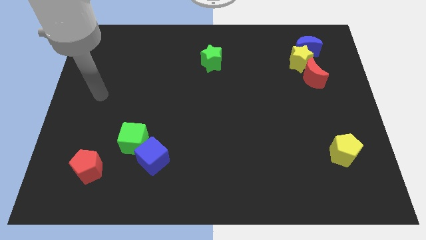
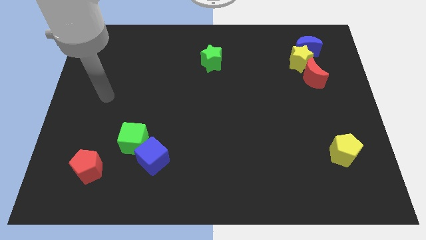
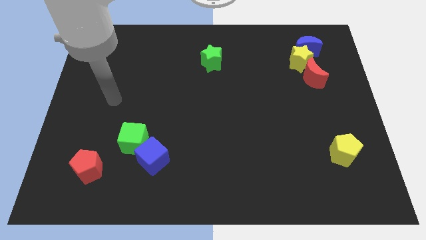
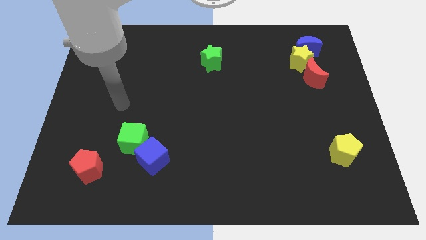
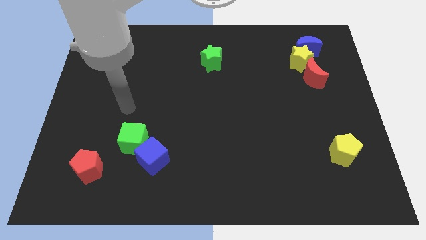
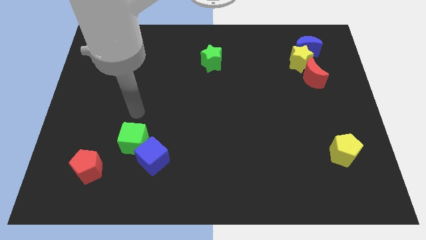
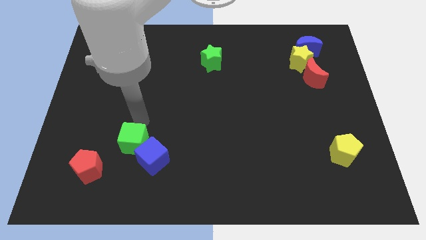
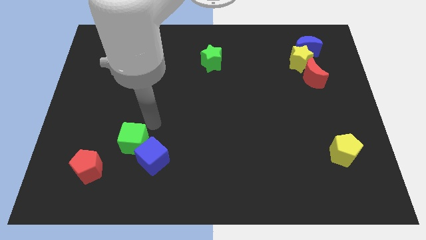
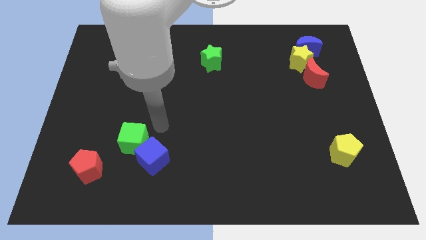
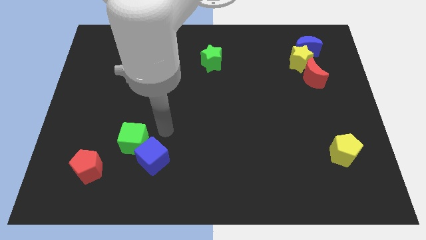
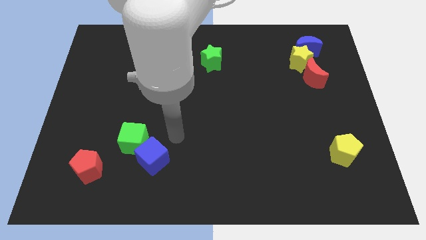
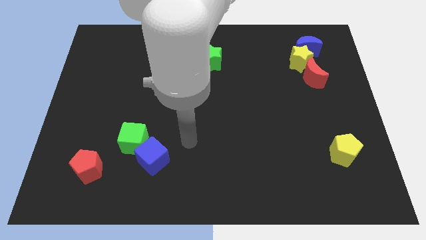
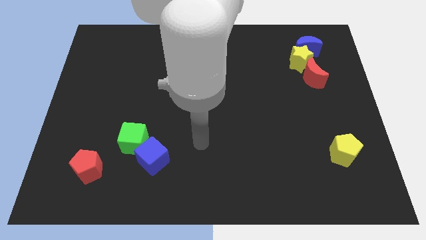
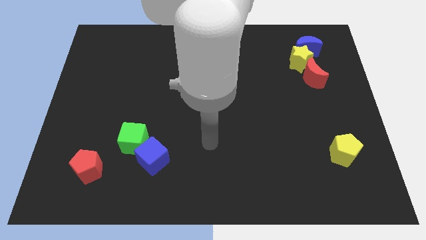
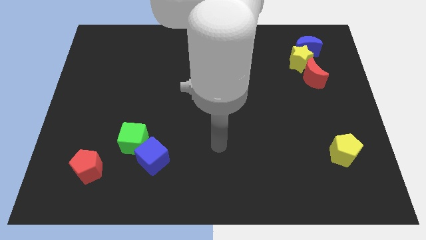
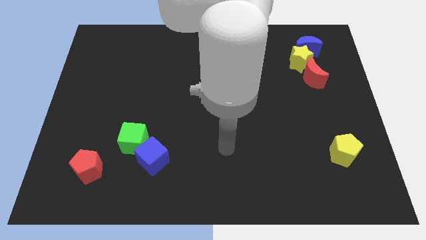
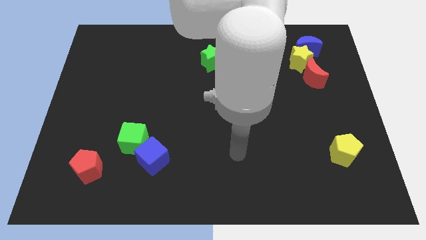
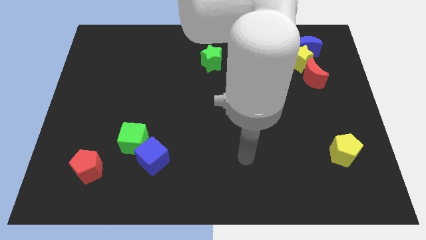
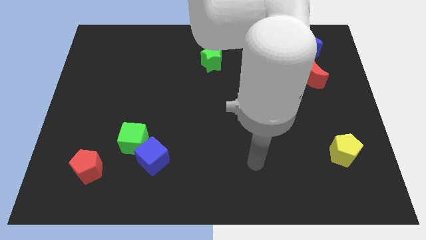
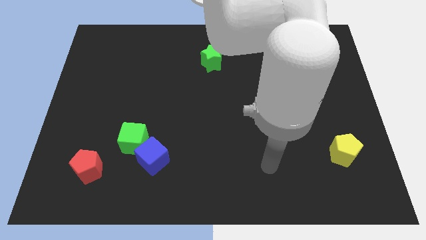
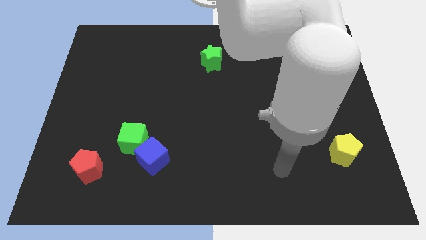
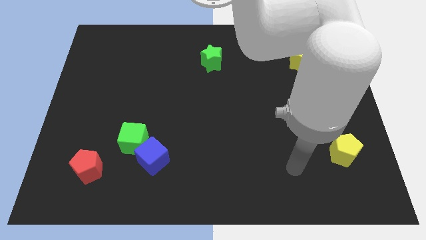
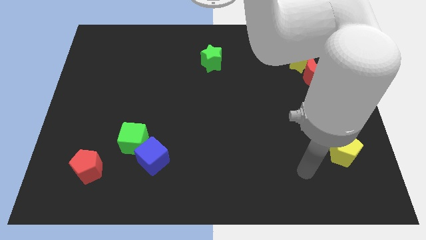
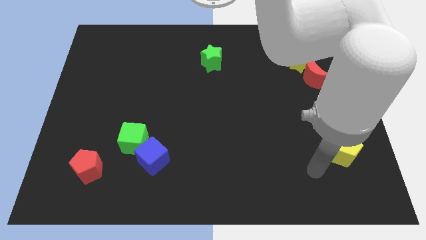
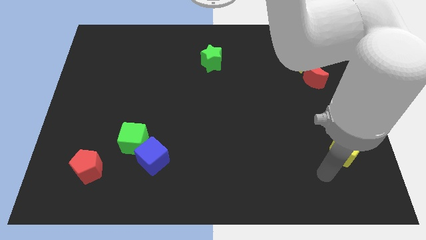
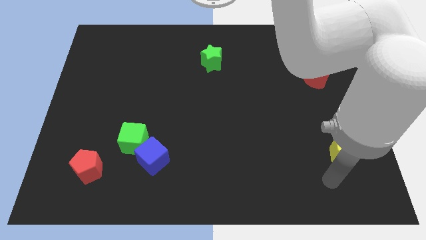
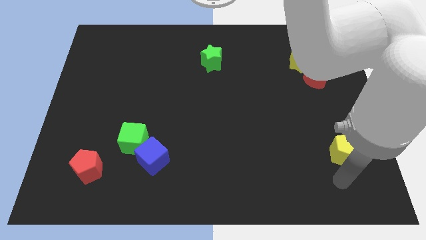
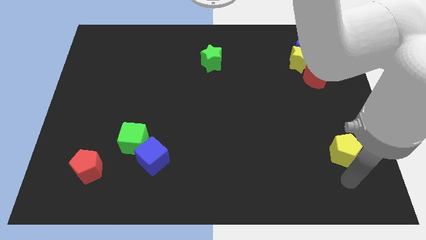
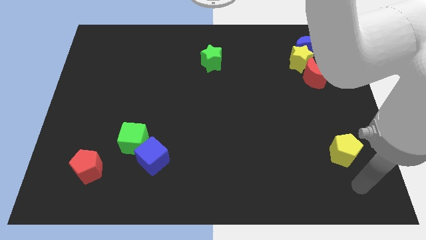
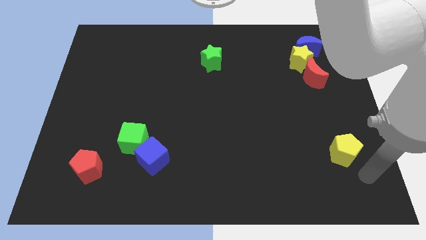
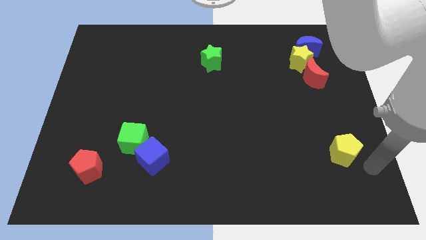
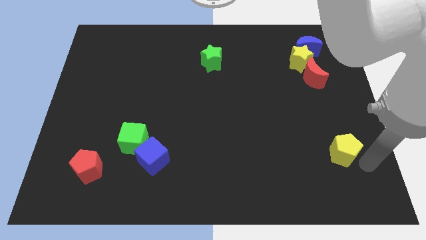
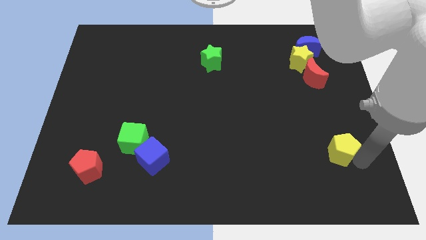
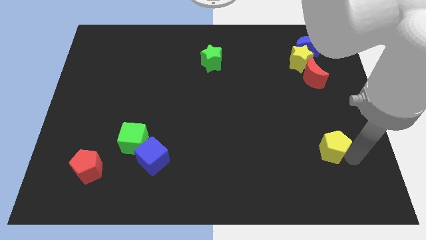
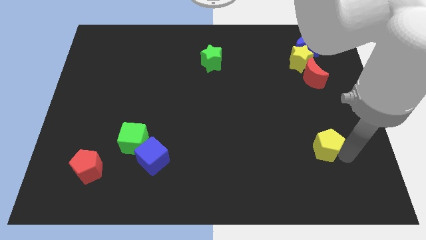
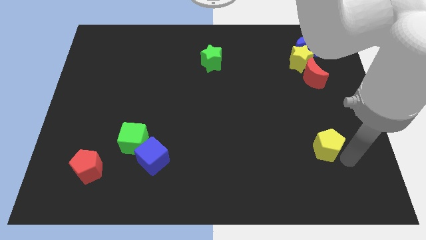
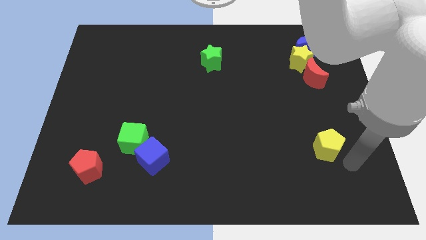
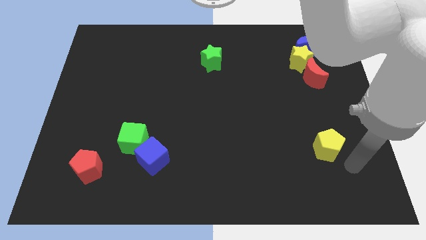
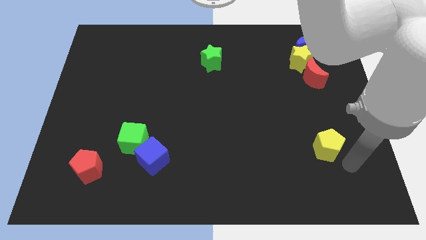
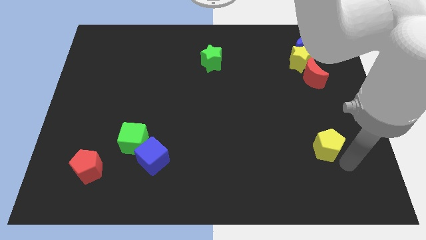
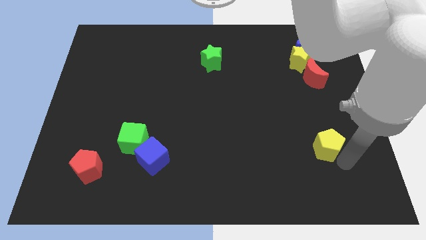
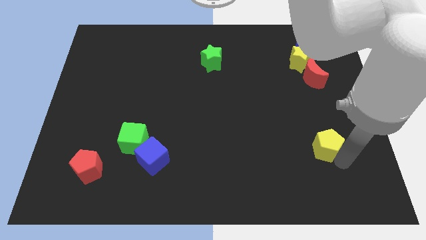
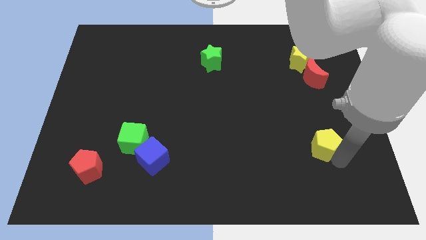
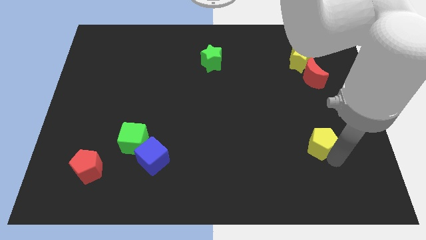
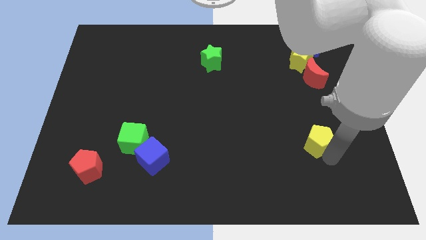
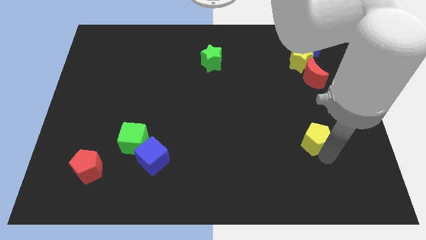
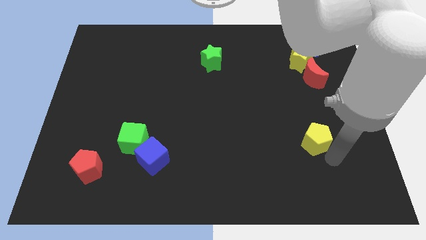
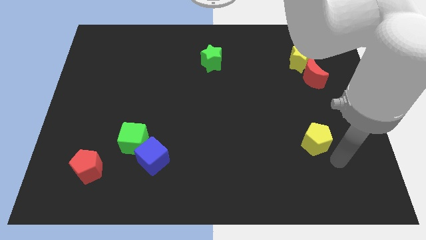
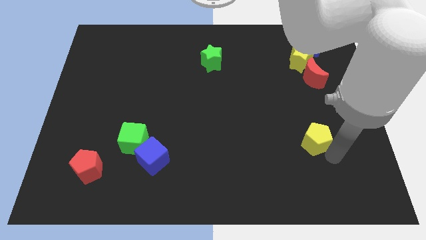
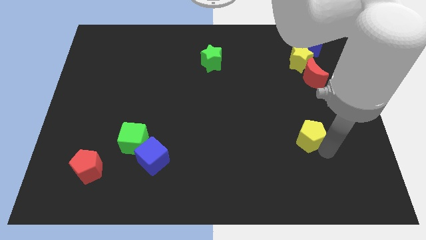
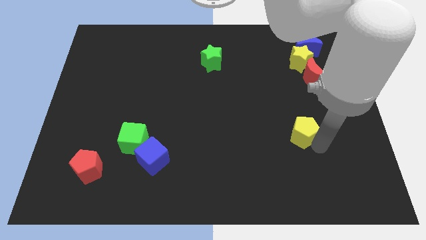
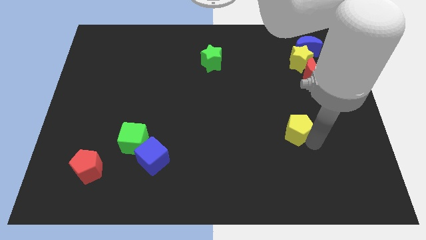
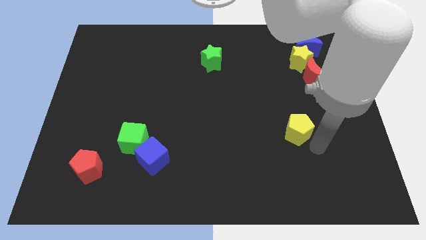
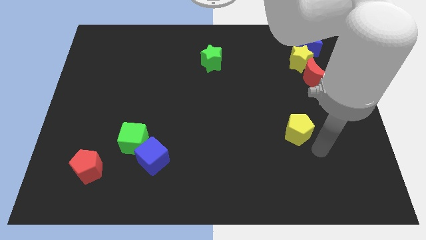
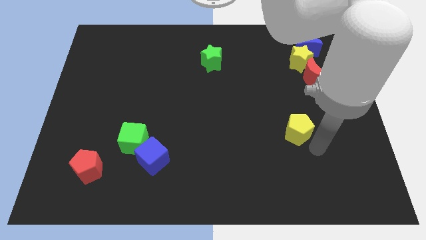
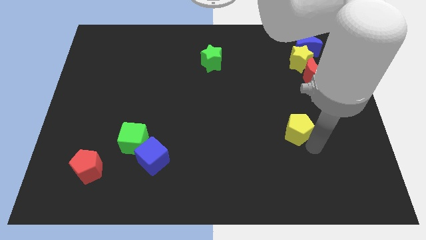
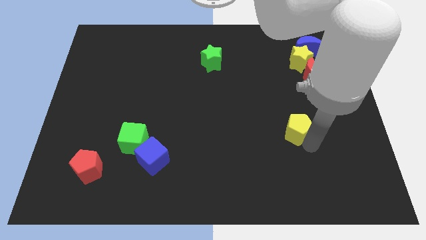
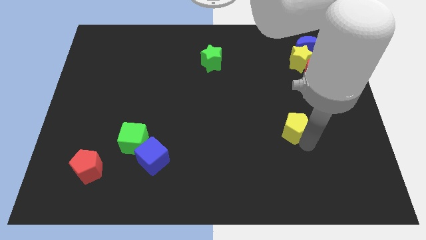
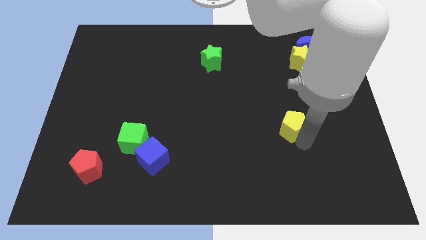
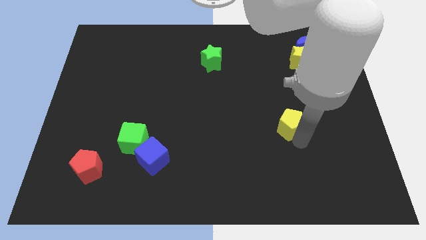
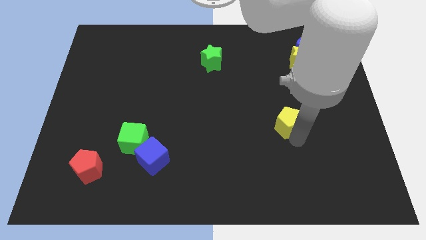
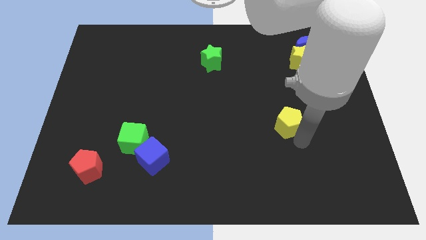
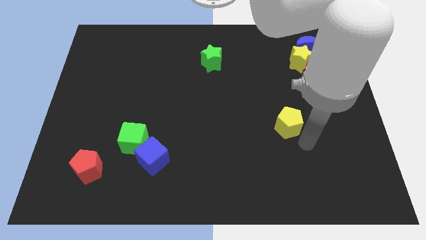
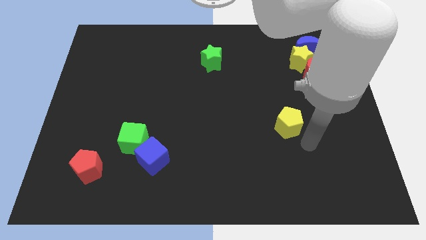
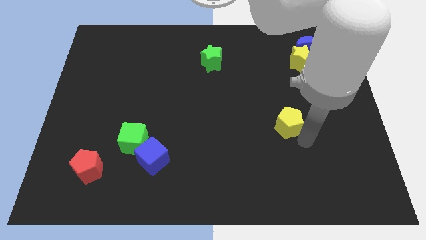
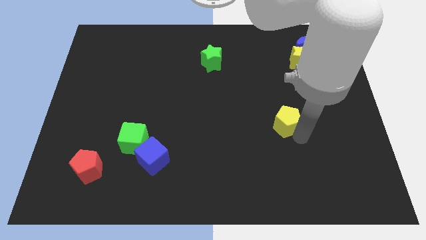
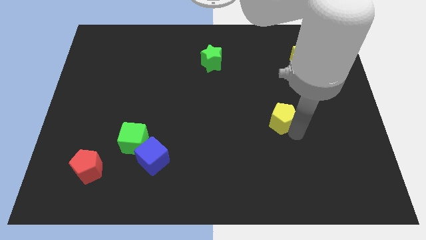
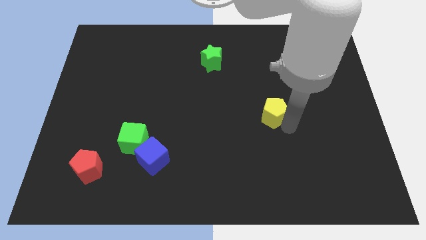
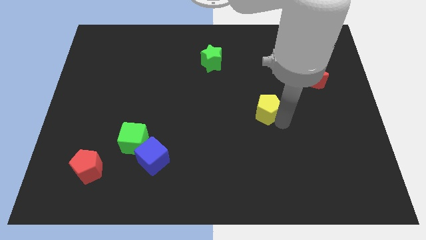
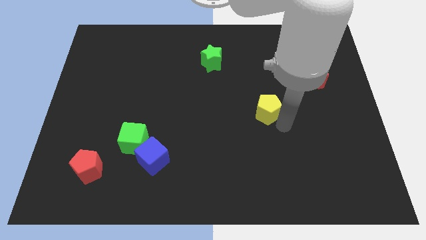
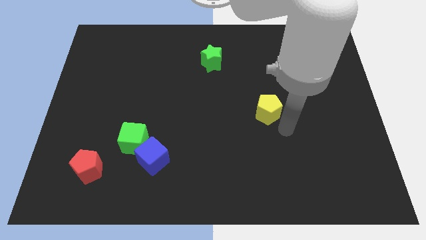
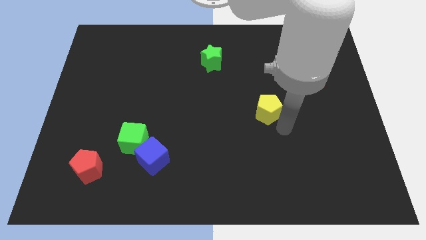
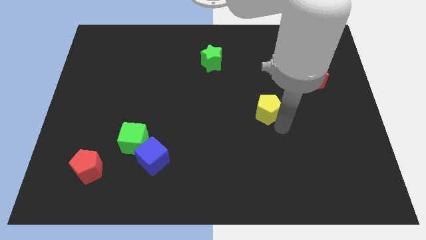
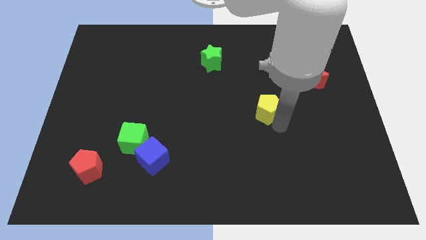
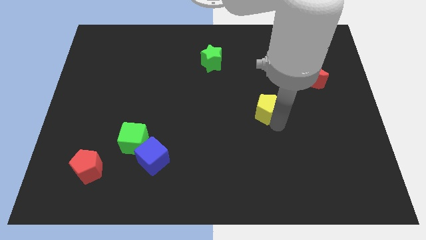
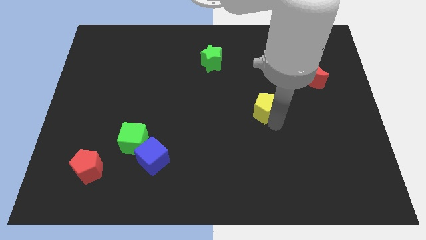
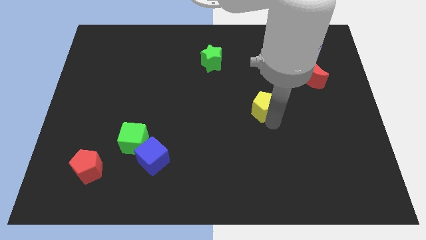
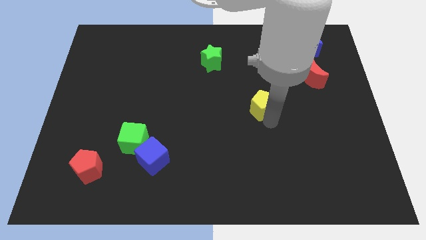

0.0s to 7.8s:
push the yellow pentagon upwards and left diagonally
